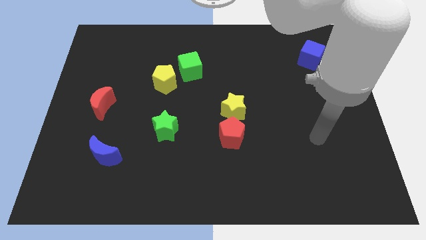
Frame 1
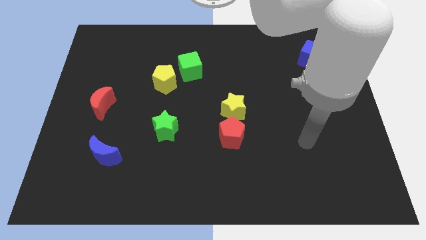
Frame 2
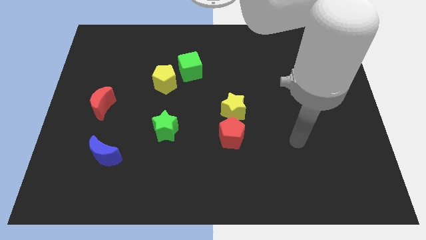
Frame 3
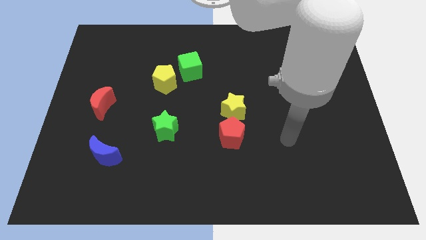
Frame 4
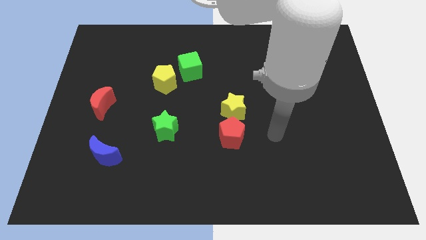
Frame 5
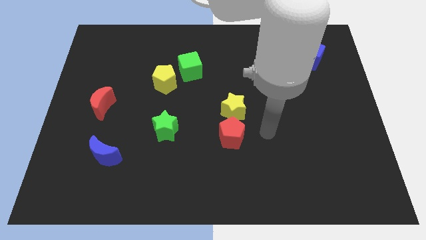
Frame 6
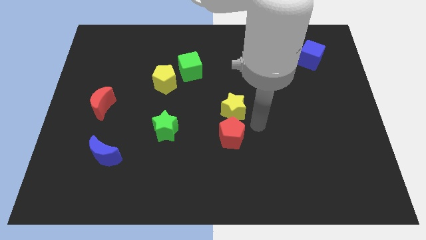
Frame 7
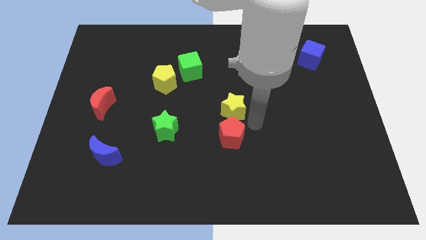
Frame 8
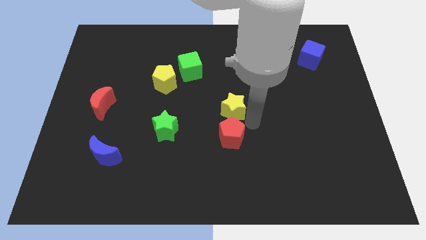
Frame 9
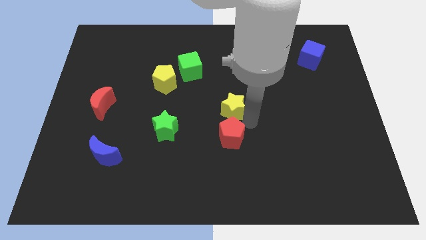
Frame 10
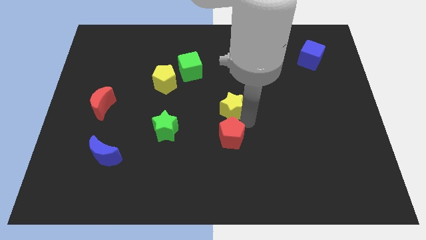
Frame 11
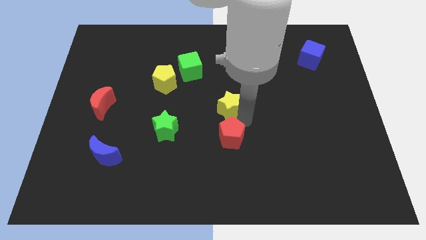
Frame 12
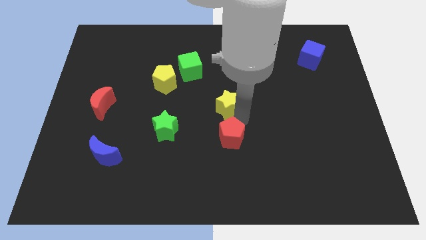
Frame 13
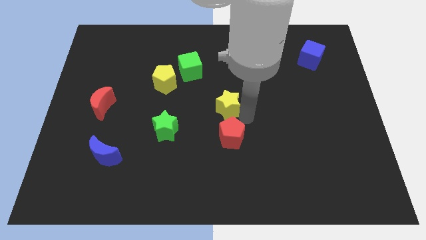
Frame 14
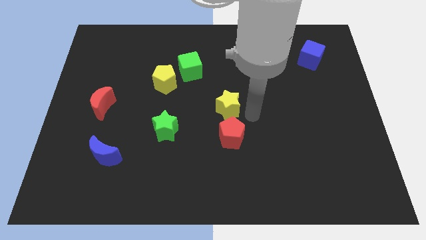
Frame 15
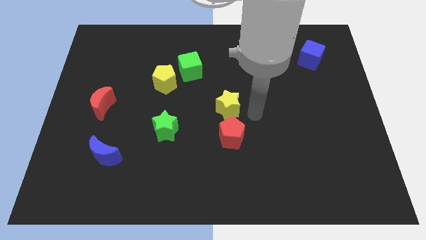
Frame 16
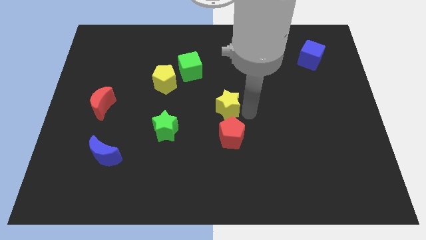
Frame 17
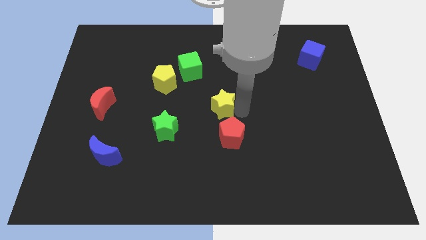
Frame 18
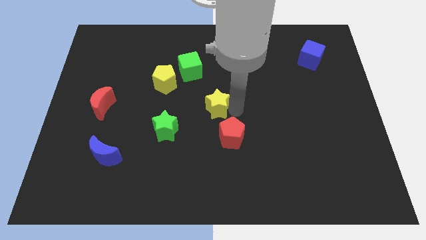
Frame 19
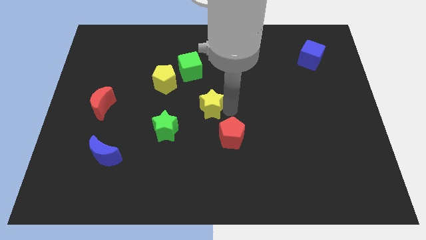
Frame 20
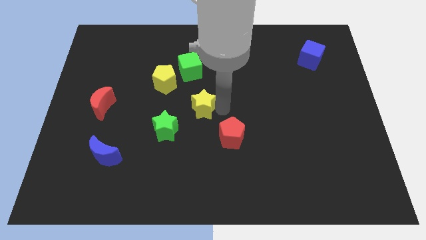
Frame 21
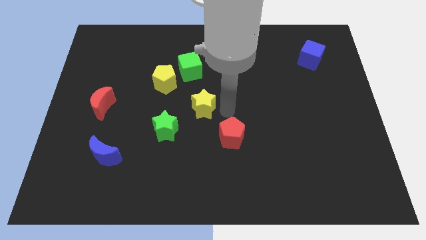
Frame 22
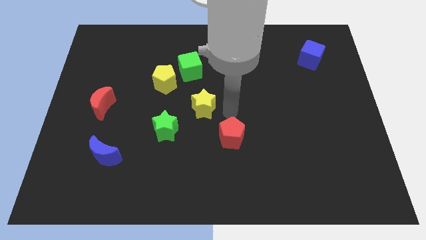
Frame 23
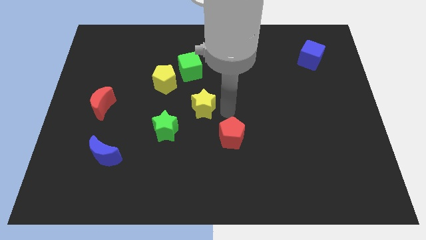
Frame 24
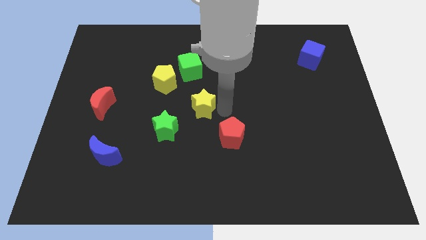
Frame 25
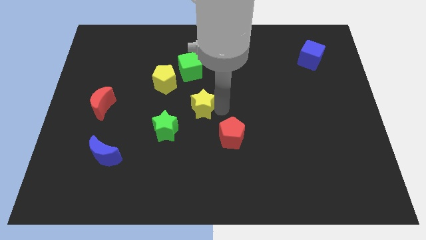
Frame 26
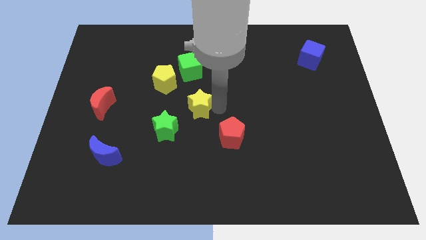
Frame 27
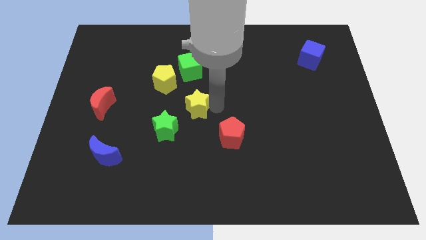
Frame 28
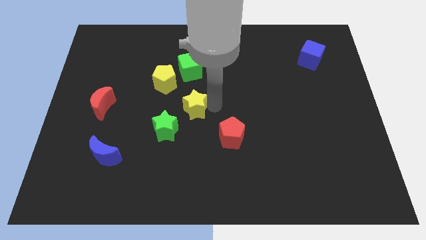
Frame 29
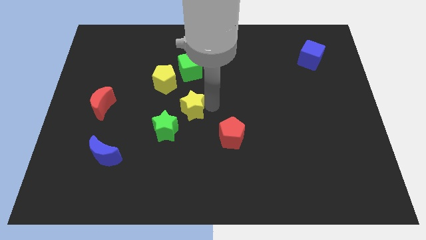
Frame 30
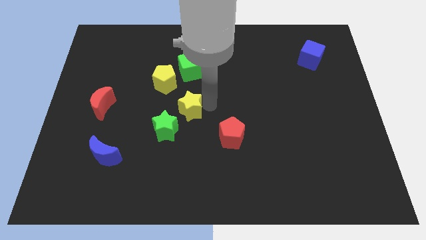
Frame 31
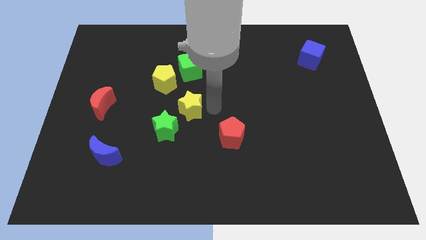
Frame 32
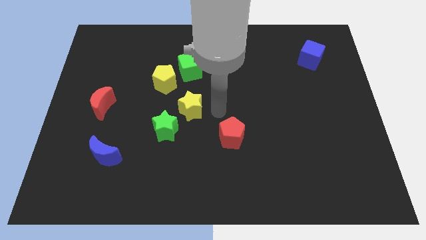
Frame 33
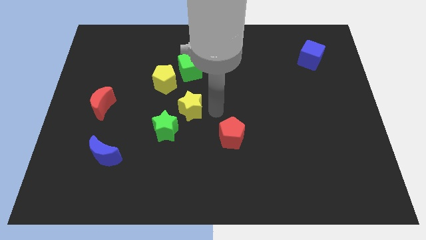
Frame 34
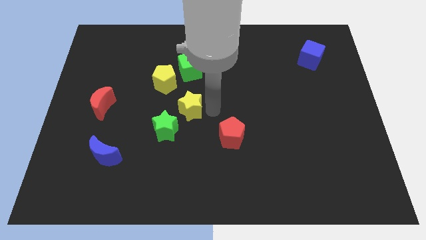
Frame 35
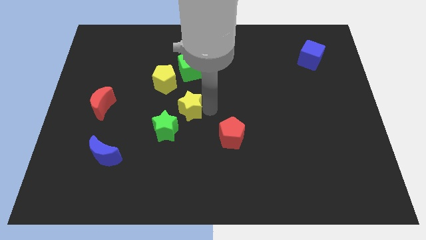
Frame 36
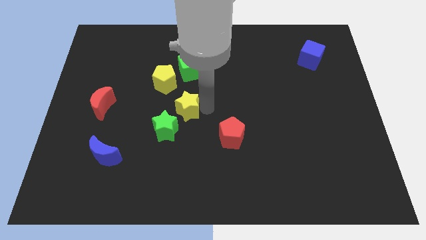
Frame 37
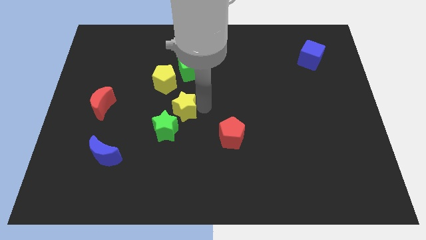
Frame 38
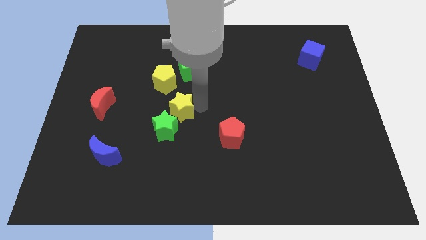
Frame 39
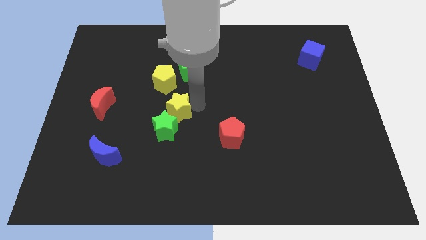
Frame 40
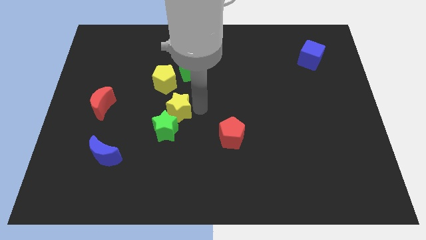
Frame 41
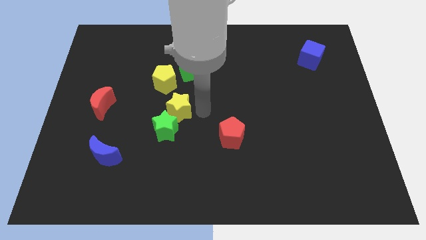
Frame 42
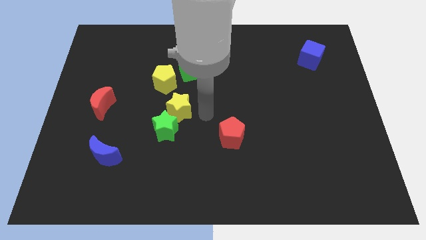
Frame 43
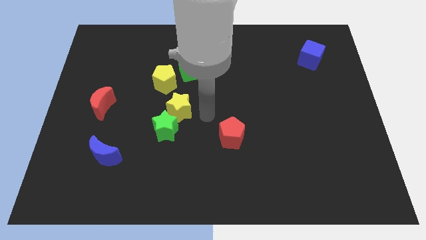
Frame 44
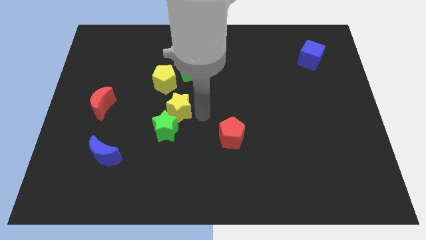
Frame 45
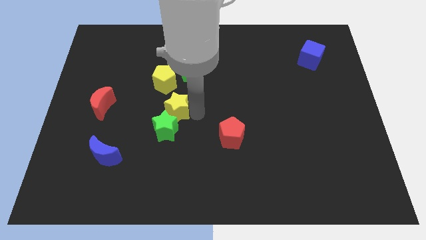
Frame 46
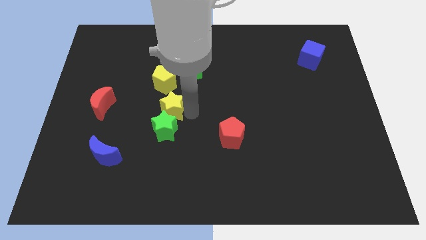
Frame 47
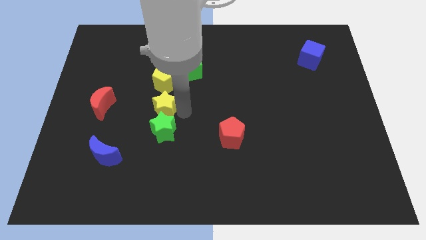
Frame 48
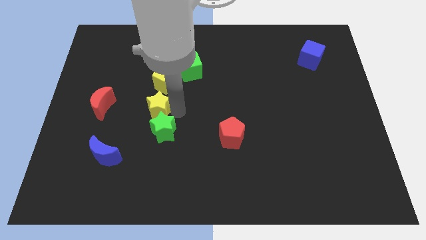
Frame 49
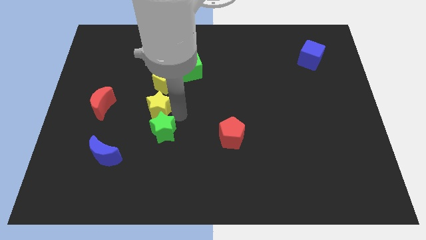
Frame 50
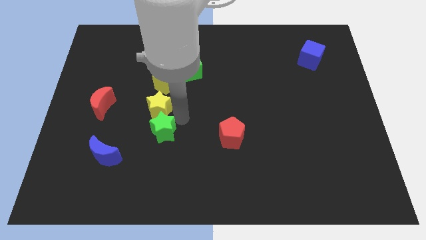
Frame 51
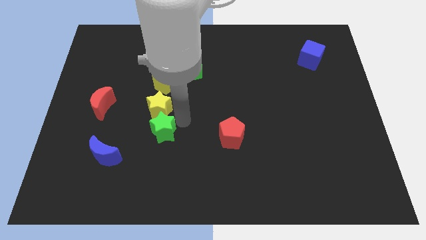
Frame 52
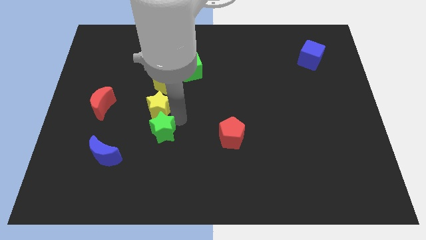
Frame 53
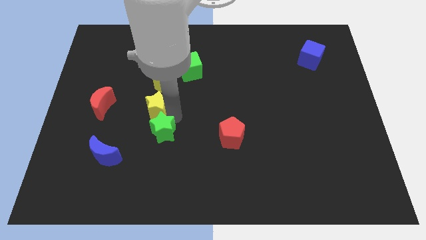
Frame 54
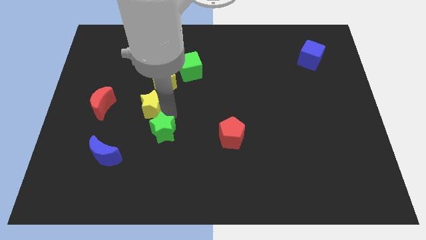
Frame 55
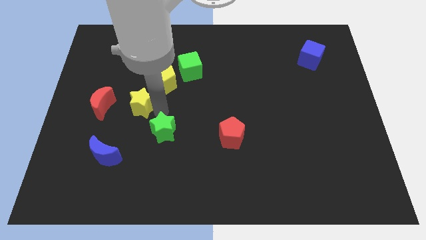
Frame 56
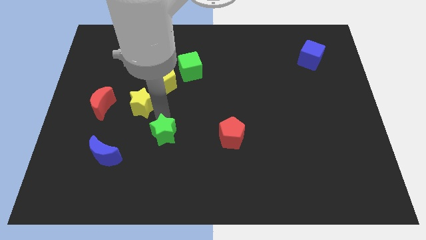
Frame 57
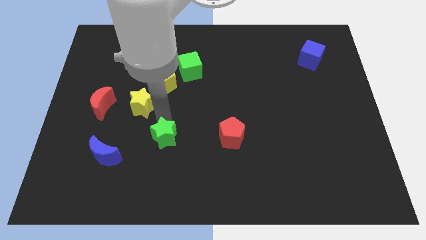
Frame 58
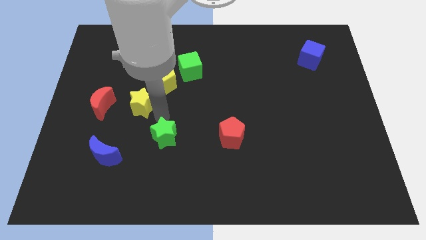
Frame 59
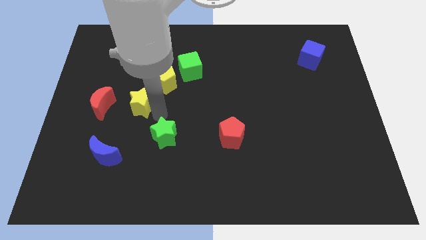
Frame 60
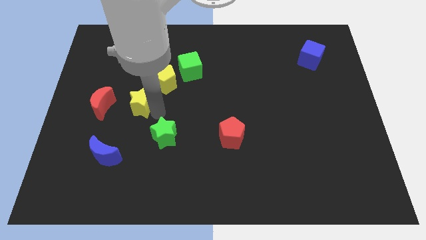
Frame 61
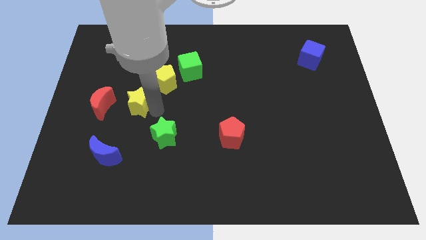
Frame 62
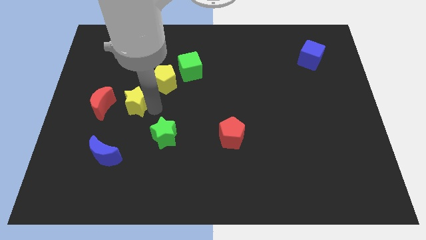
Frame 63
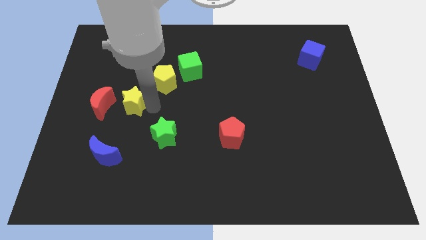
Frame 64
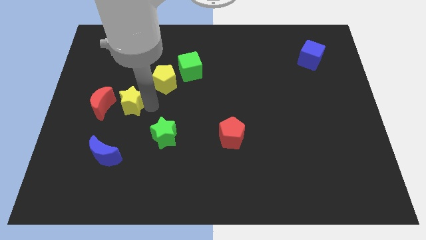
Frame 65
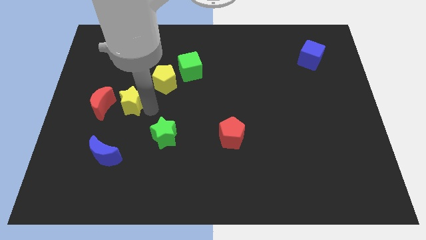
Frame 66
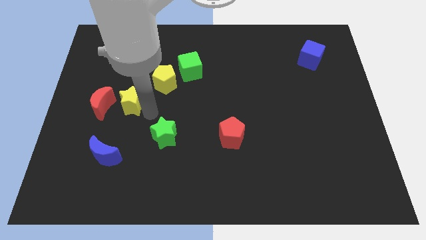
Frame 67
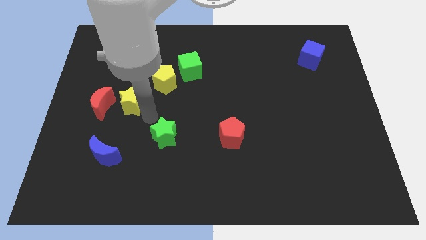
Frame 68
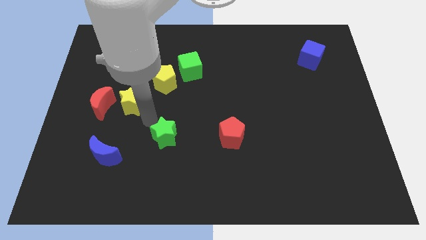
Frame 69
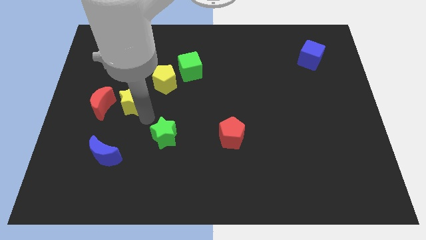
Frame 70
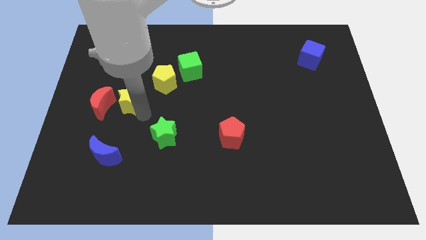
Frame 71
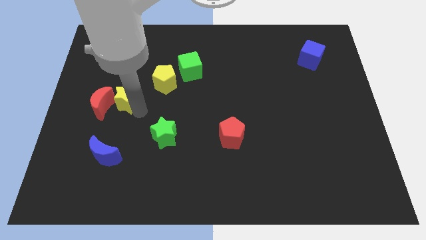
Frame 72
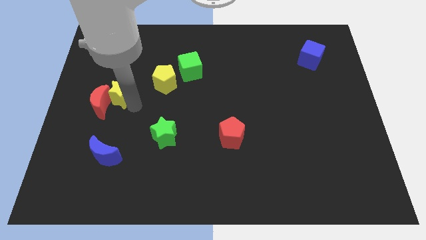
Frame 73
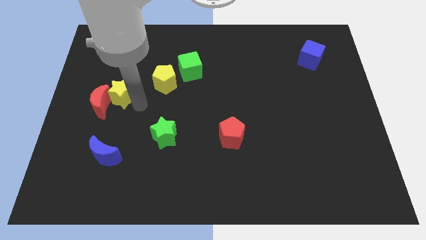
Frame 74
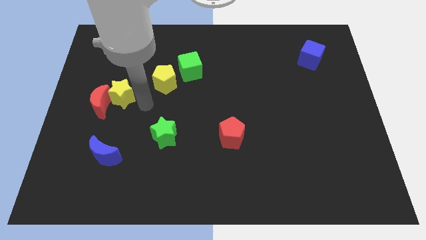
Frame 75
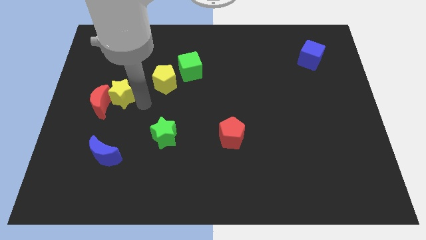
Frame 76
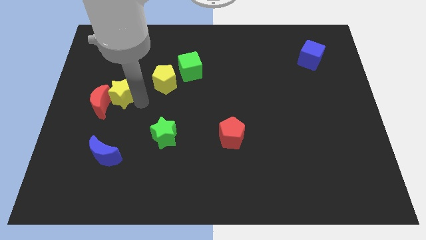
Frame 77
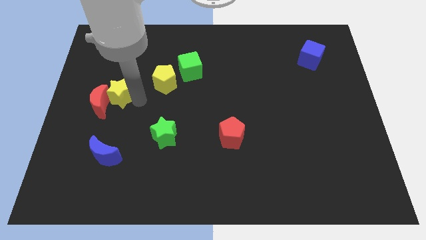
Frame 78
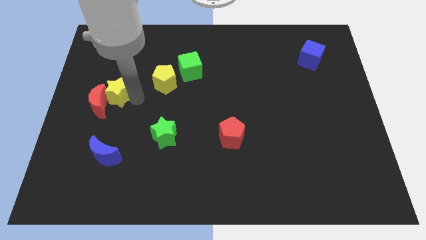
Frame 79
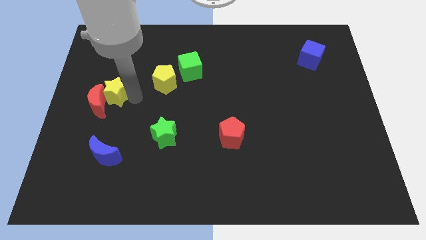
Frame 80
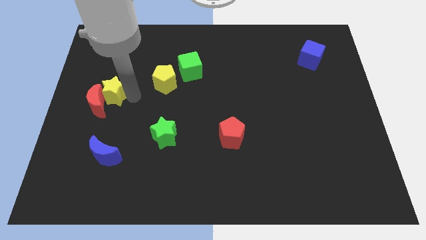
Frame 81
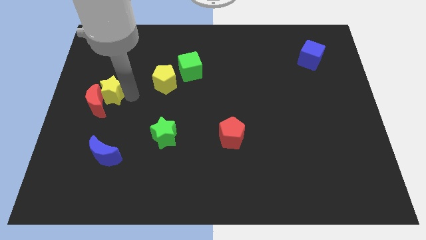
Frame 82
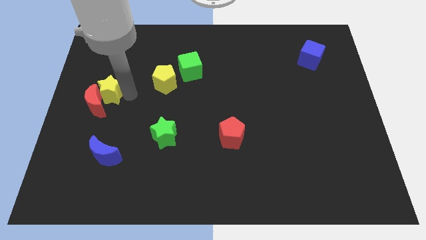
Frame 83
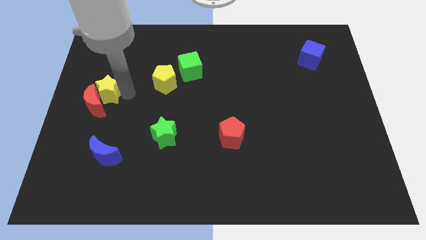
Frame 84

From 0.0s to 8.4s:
put the yellow star to the center left
